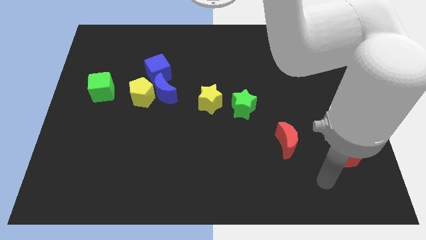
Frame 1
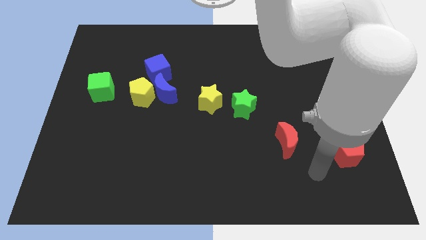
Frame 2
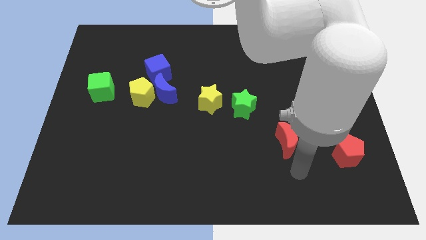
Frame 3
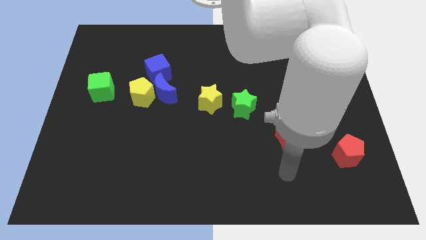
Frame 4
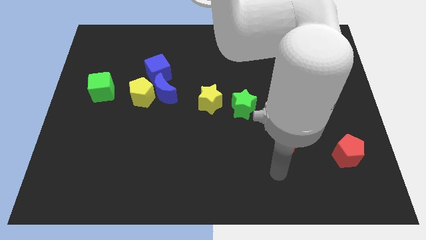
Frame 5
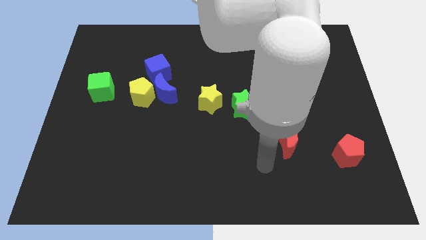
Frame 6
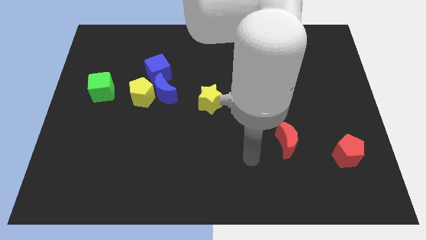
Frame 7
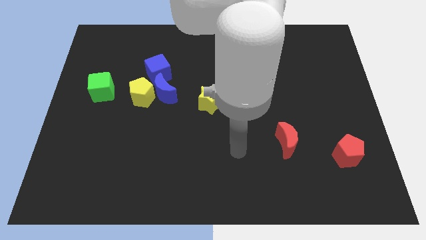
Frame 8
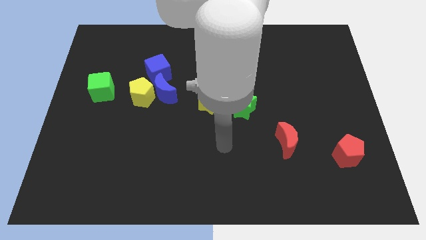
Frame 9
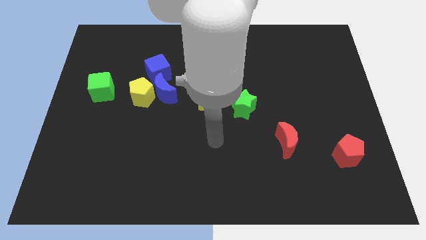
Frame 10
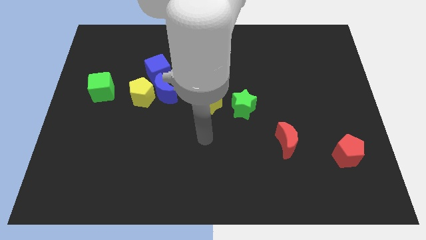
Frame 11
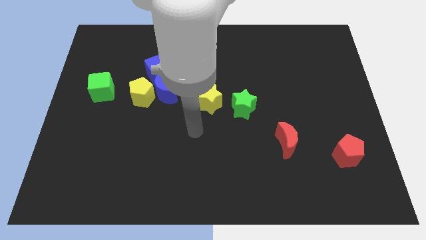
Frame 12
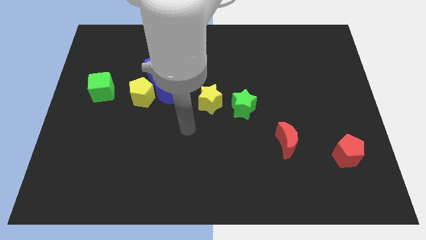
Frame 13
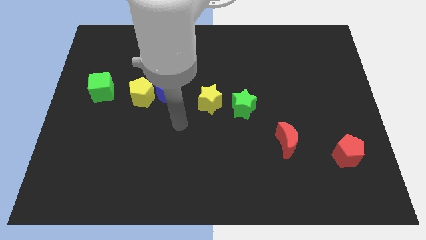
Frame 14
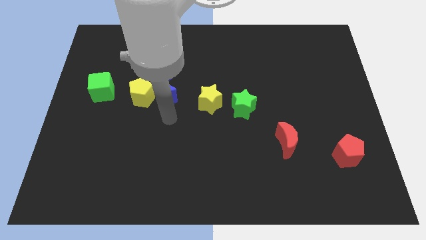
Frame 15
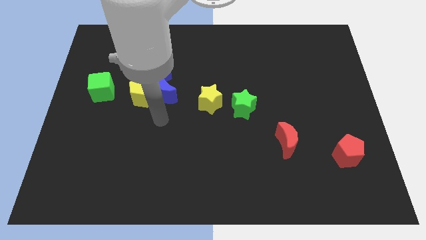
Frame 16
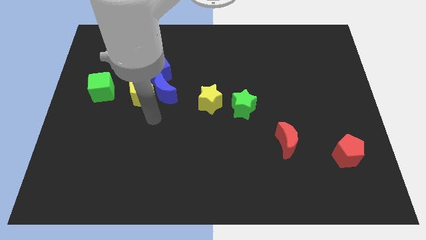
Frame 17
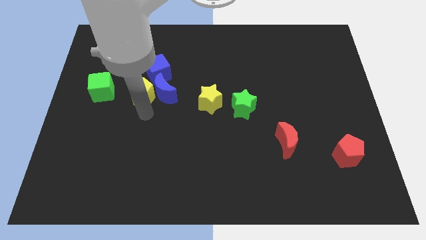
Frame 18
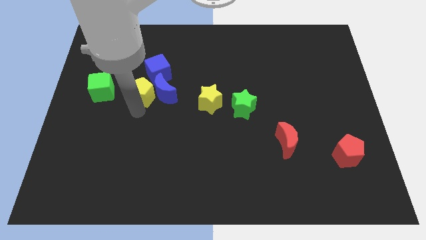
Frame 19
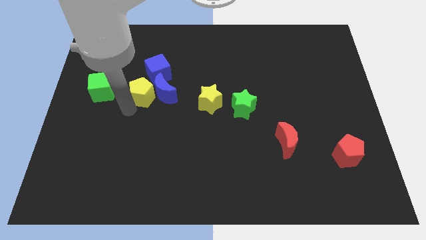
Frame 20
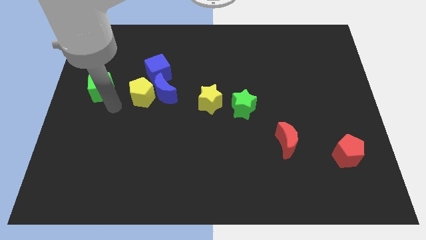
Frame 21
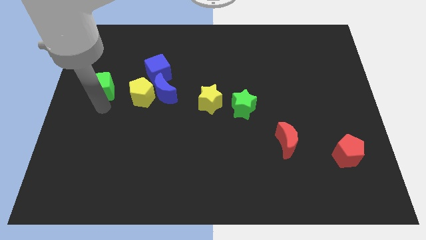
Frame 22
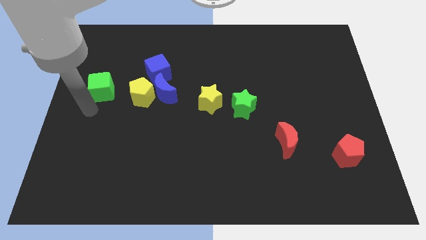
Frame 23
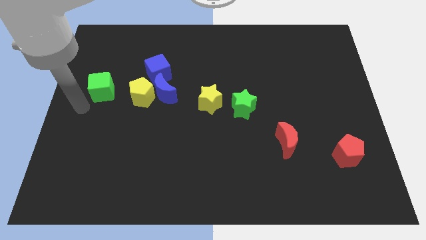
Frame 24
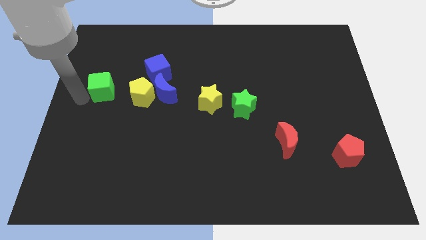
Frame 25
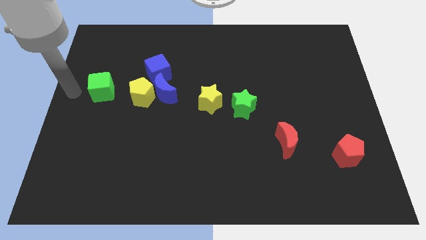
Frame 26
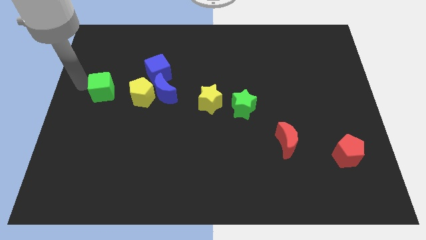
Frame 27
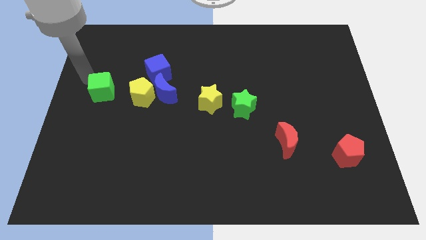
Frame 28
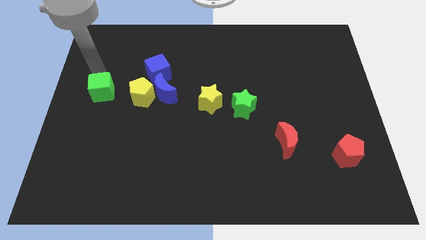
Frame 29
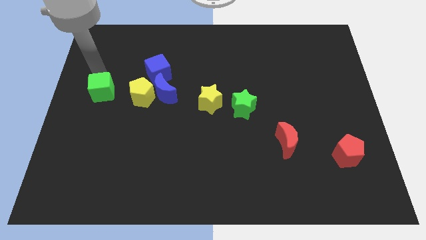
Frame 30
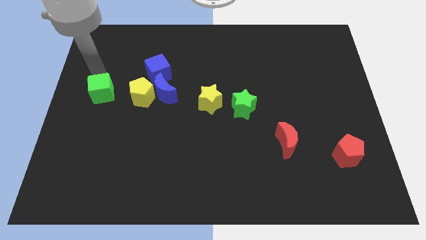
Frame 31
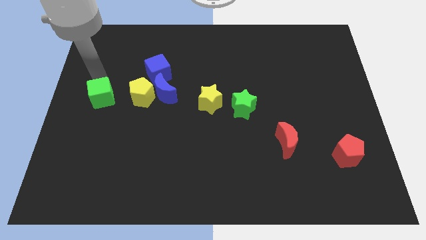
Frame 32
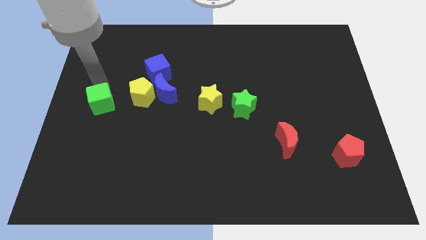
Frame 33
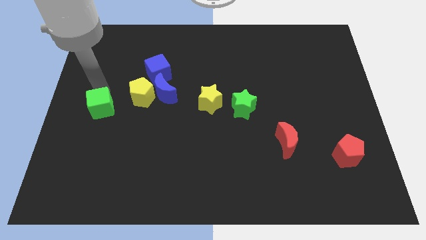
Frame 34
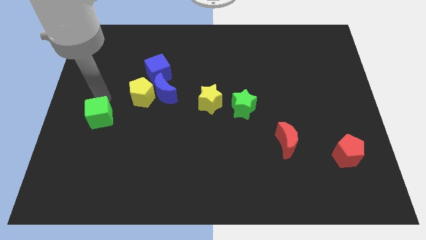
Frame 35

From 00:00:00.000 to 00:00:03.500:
slightly push the green cube down

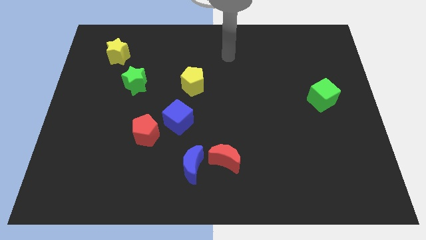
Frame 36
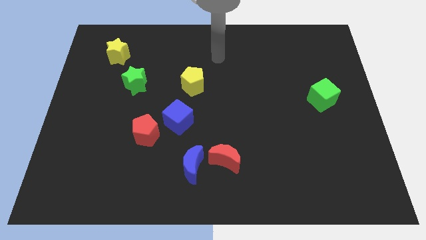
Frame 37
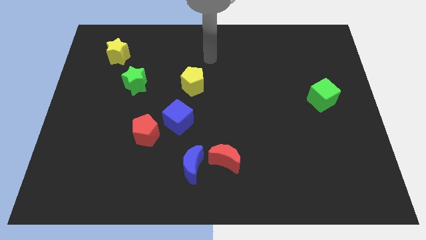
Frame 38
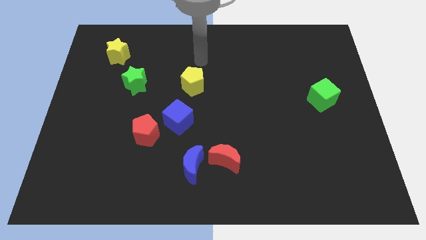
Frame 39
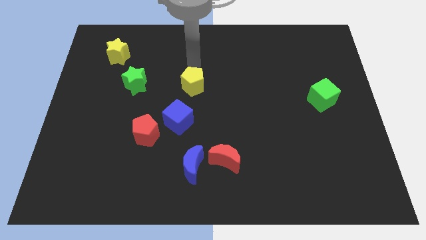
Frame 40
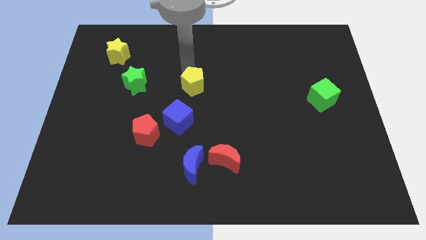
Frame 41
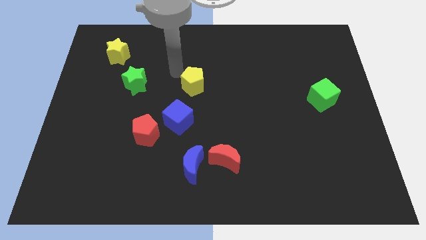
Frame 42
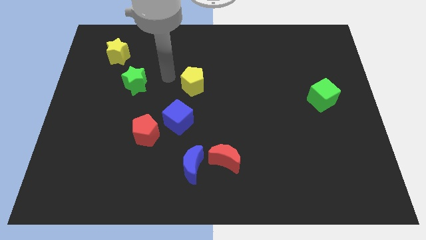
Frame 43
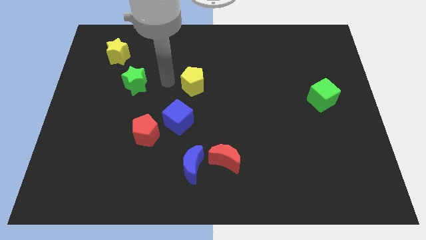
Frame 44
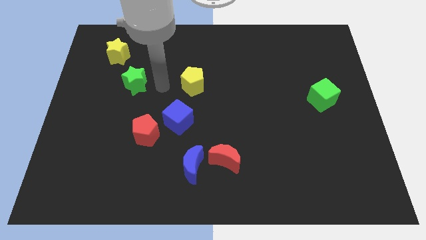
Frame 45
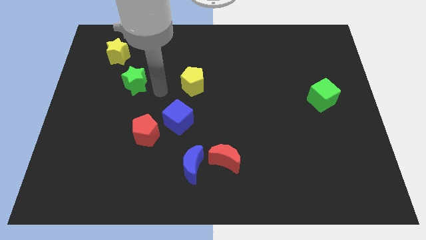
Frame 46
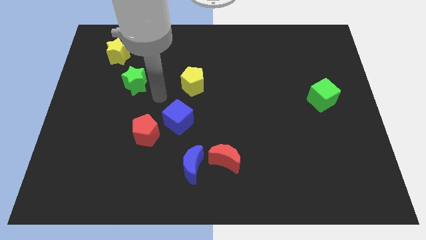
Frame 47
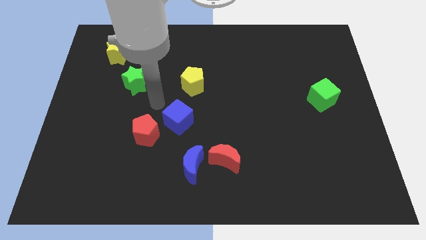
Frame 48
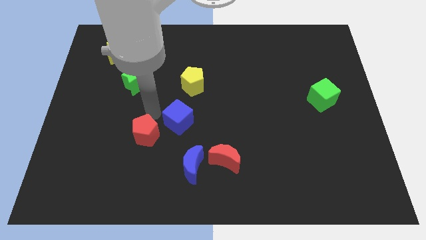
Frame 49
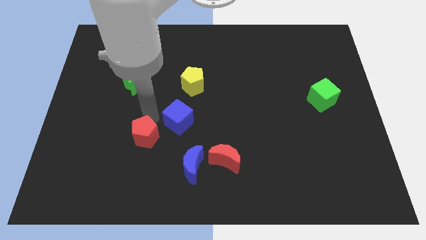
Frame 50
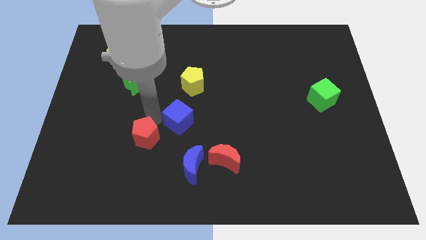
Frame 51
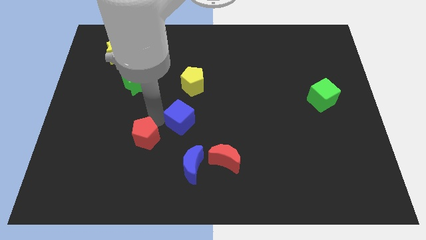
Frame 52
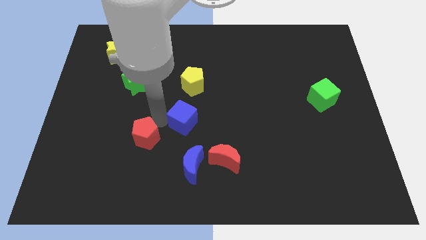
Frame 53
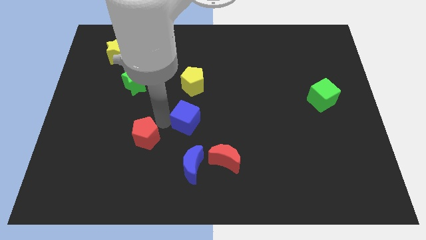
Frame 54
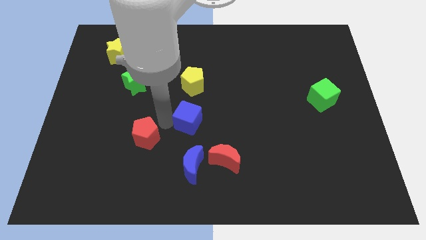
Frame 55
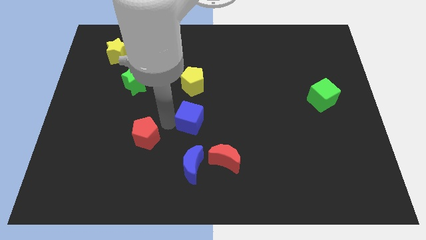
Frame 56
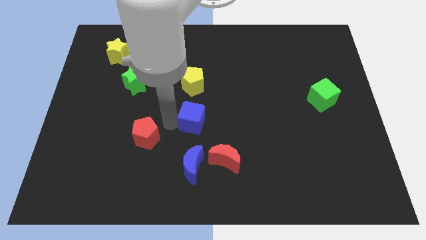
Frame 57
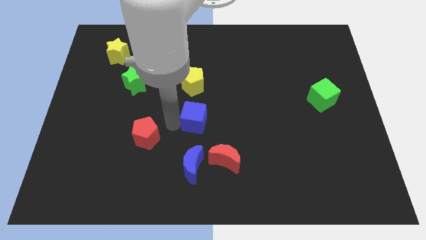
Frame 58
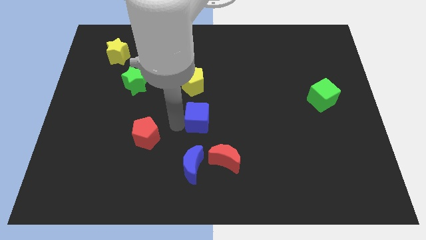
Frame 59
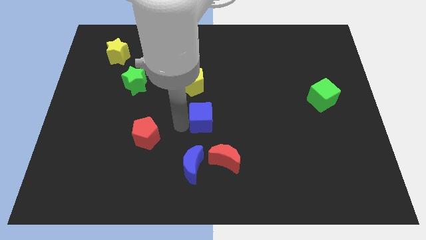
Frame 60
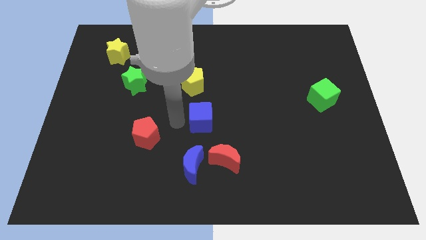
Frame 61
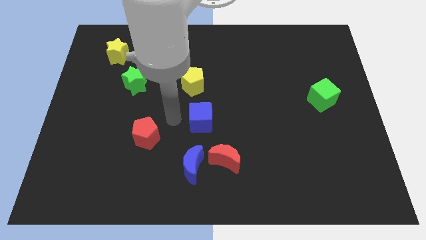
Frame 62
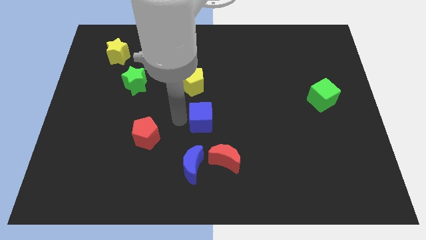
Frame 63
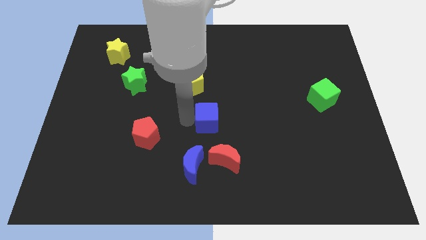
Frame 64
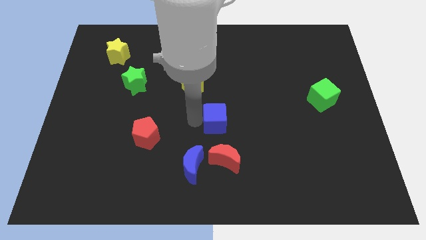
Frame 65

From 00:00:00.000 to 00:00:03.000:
slightly push the blue cube to the right

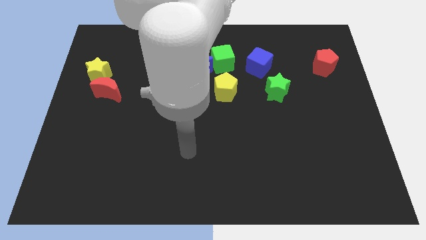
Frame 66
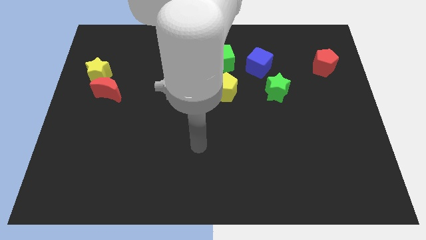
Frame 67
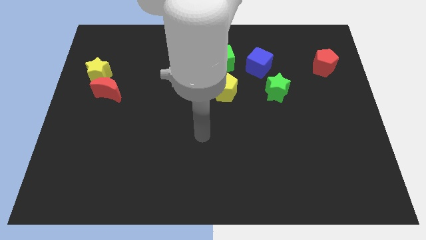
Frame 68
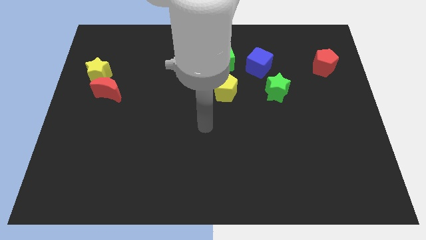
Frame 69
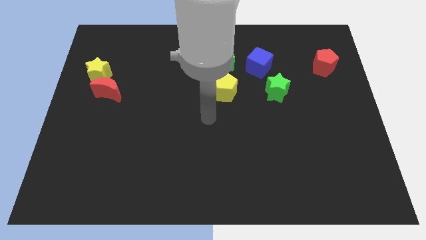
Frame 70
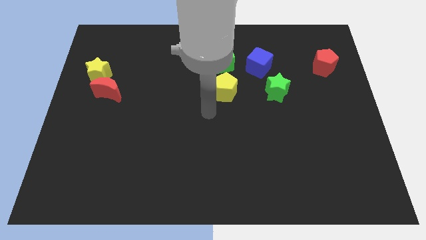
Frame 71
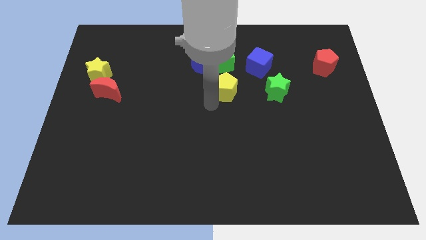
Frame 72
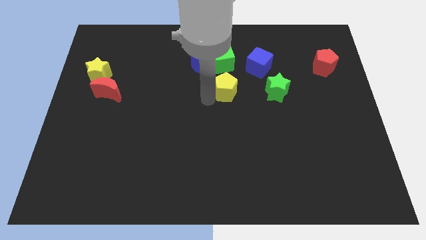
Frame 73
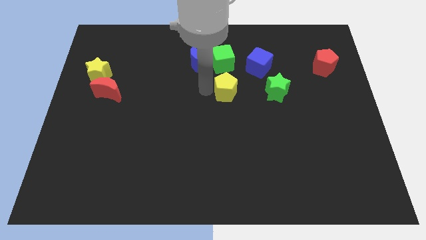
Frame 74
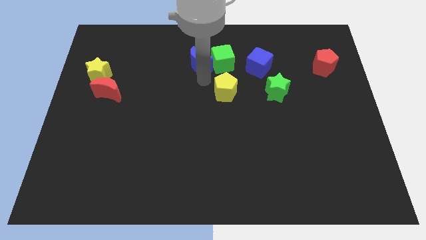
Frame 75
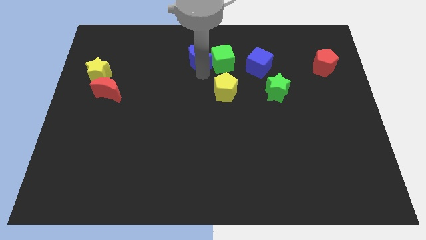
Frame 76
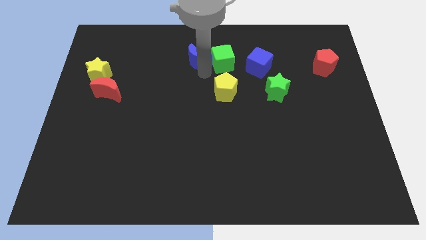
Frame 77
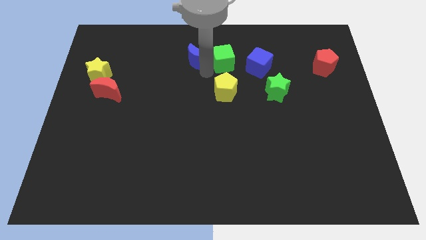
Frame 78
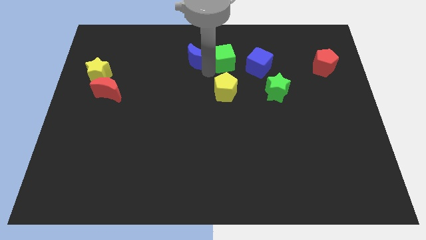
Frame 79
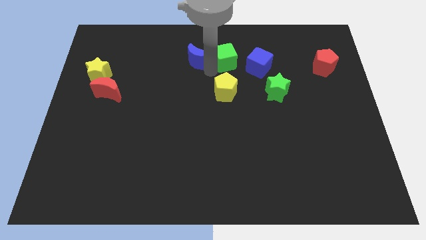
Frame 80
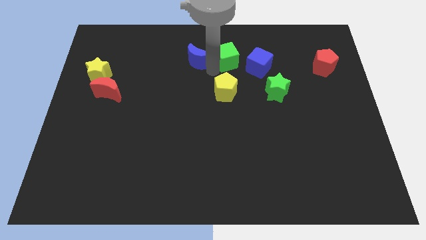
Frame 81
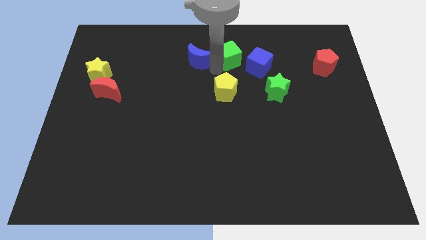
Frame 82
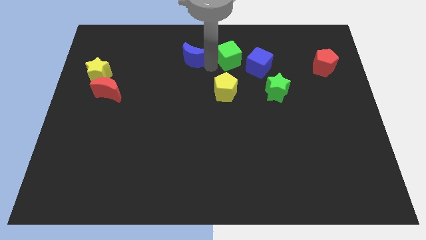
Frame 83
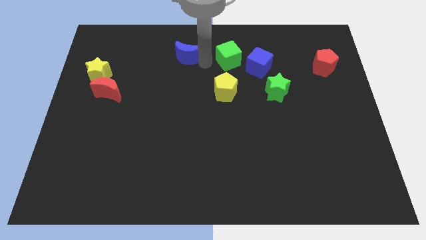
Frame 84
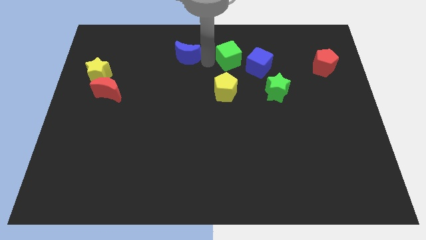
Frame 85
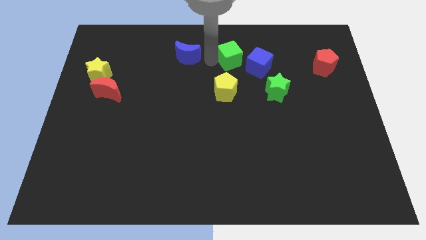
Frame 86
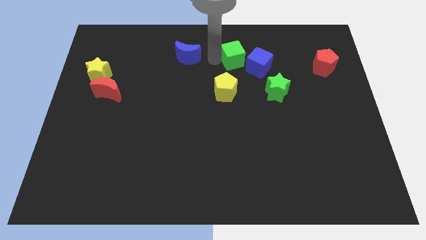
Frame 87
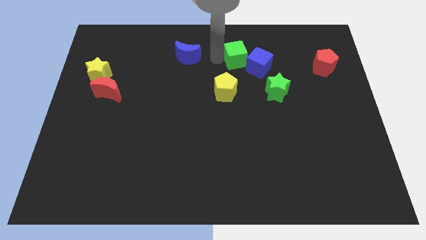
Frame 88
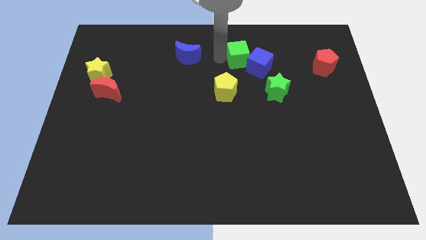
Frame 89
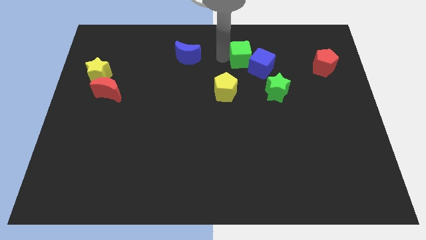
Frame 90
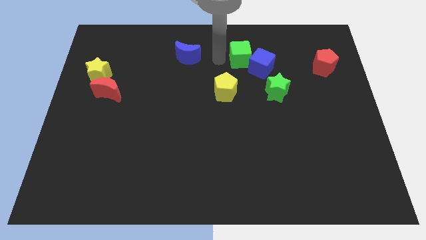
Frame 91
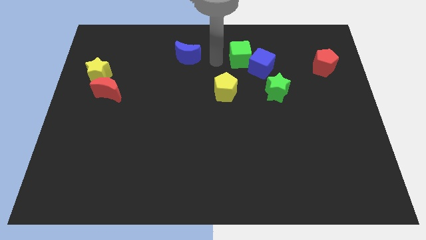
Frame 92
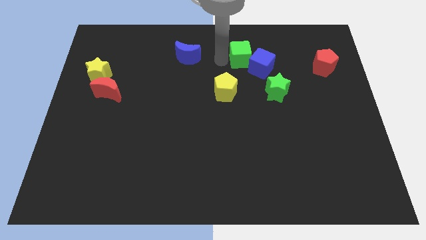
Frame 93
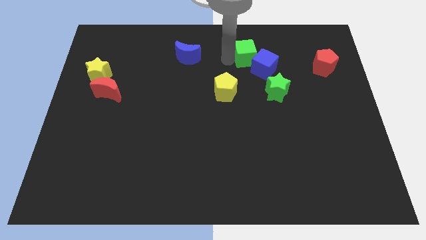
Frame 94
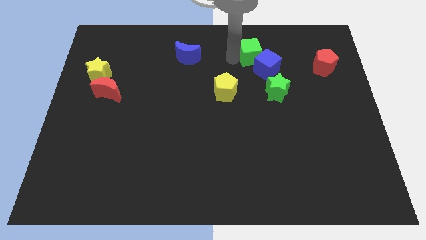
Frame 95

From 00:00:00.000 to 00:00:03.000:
slide the green cube right a bit
